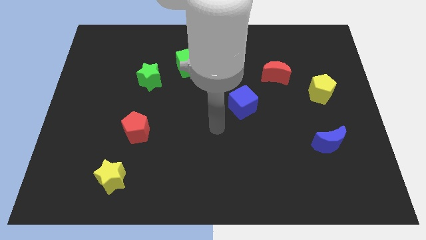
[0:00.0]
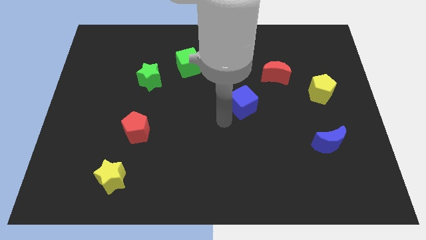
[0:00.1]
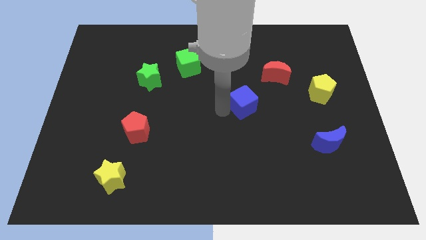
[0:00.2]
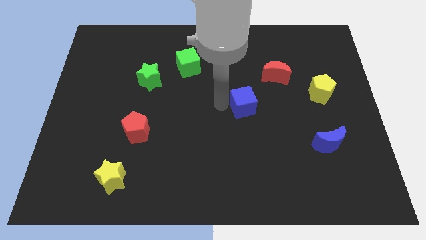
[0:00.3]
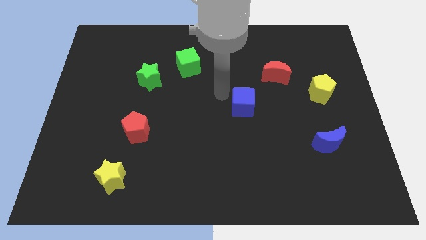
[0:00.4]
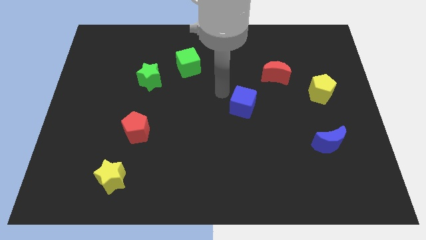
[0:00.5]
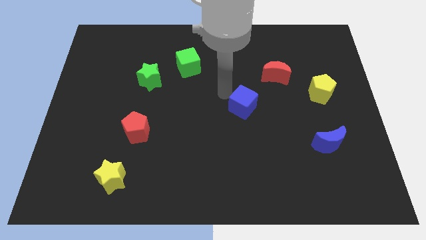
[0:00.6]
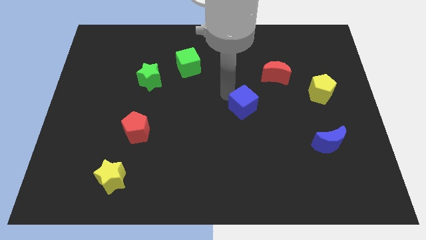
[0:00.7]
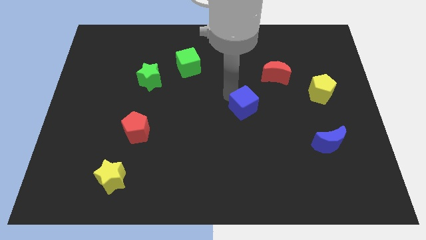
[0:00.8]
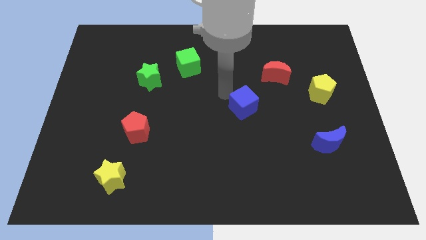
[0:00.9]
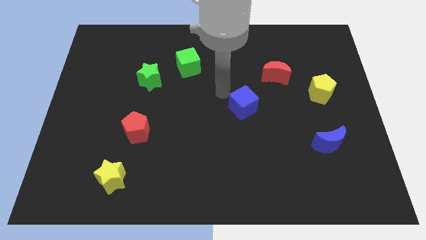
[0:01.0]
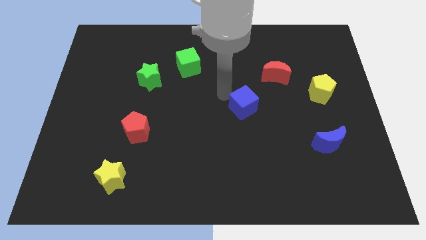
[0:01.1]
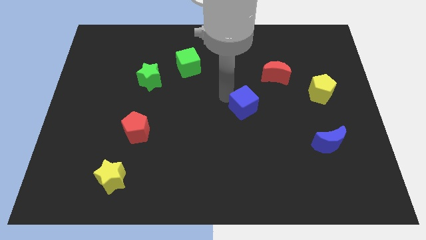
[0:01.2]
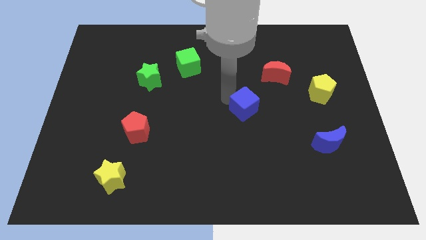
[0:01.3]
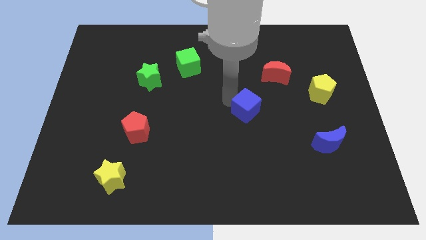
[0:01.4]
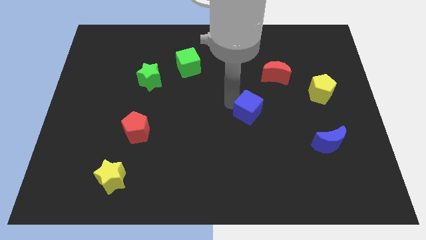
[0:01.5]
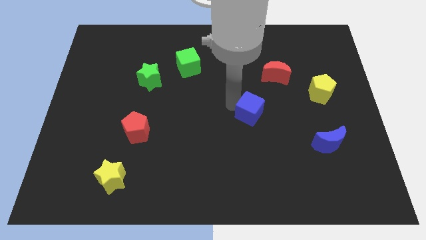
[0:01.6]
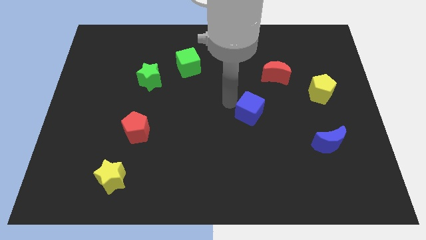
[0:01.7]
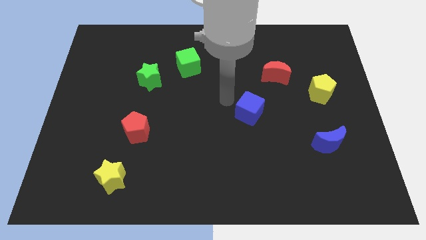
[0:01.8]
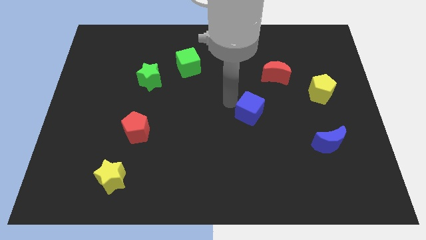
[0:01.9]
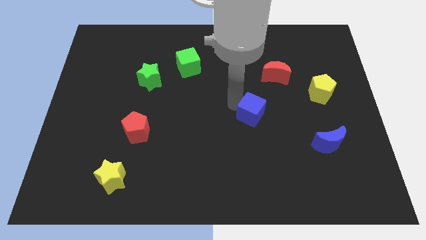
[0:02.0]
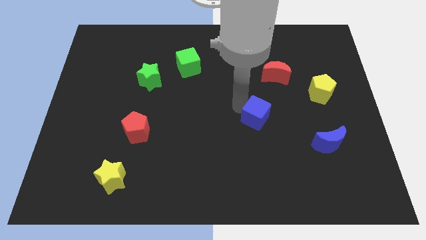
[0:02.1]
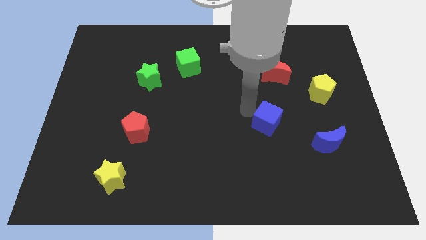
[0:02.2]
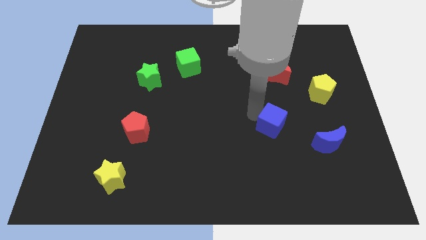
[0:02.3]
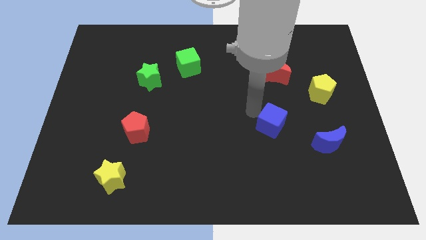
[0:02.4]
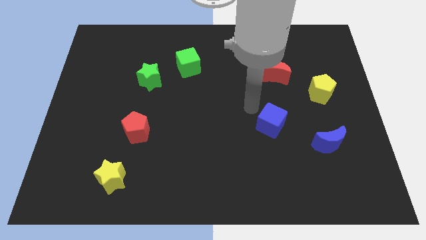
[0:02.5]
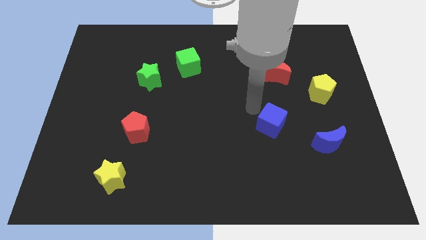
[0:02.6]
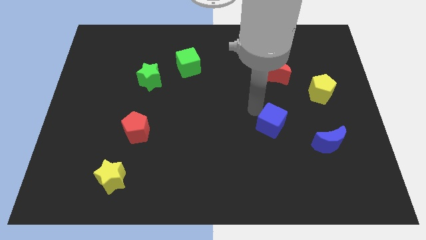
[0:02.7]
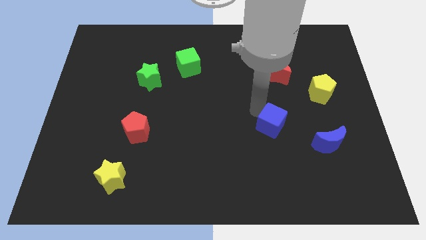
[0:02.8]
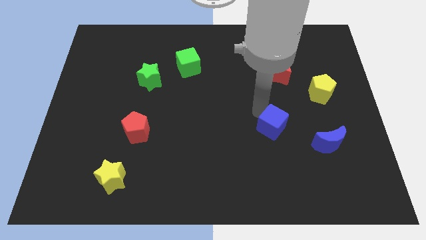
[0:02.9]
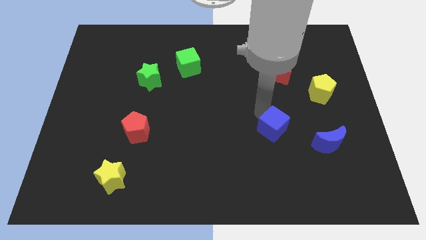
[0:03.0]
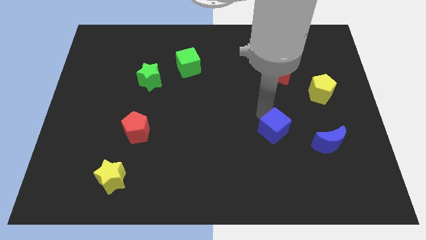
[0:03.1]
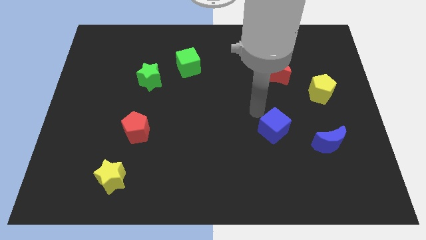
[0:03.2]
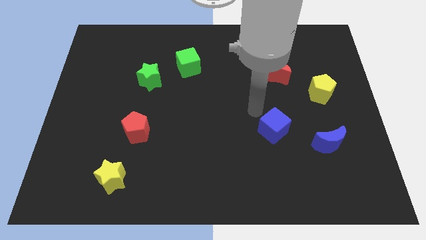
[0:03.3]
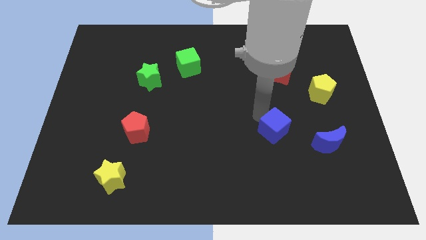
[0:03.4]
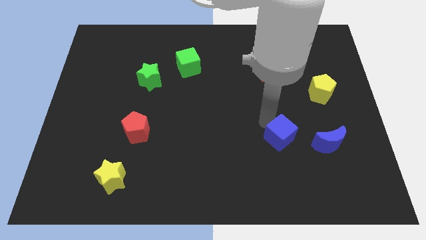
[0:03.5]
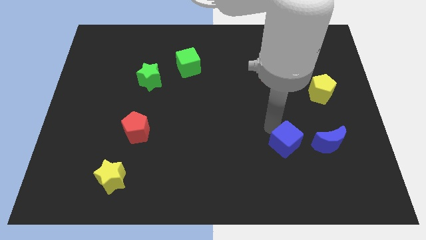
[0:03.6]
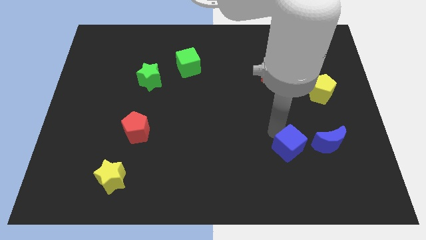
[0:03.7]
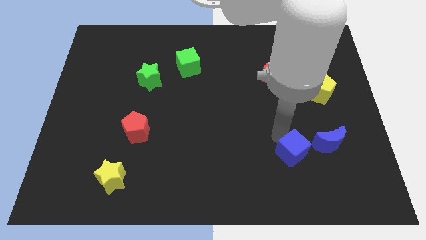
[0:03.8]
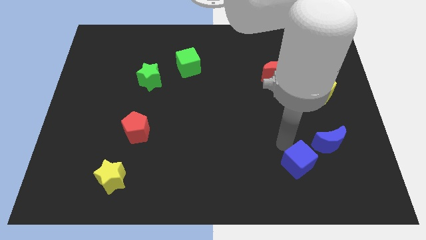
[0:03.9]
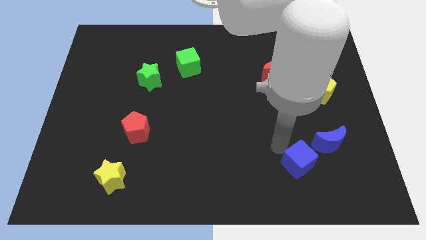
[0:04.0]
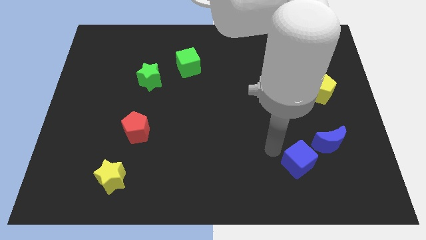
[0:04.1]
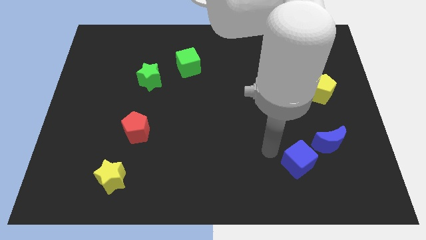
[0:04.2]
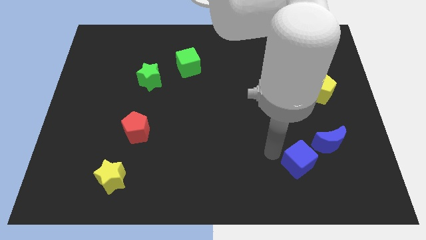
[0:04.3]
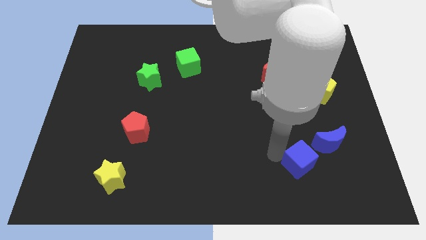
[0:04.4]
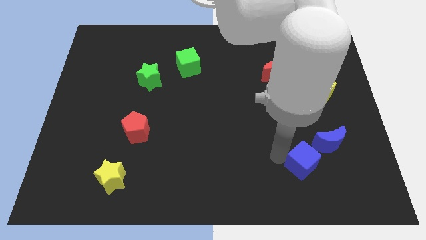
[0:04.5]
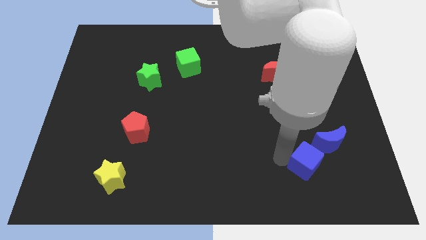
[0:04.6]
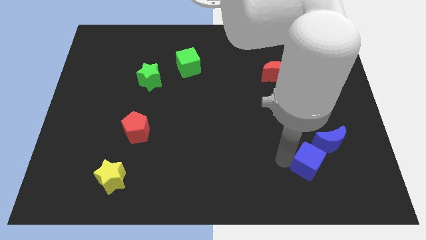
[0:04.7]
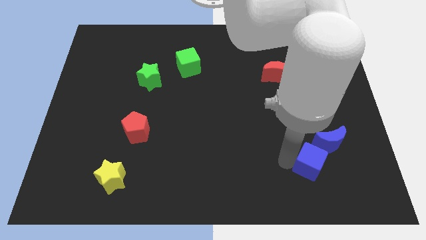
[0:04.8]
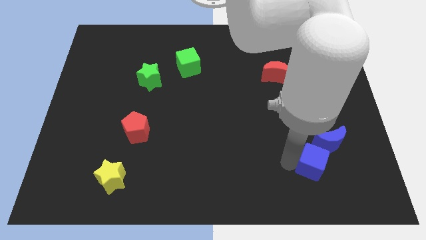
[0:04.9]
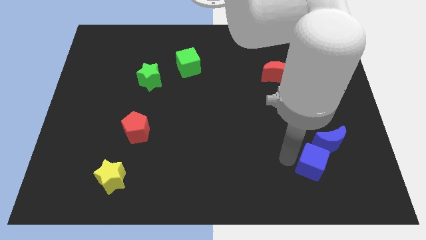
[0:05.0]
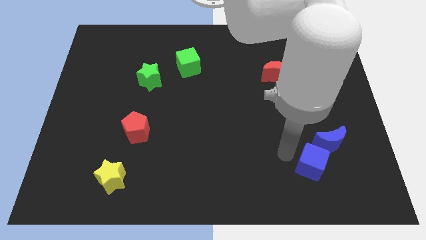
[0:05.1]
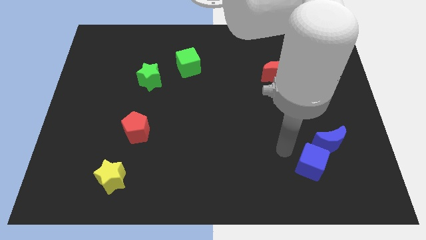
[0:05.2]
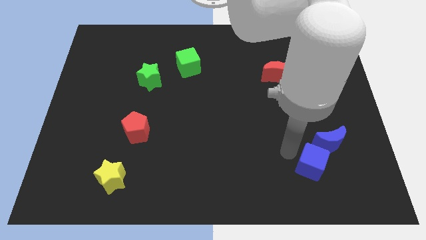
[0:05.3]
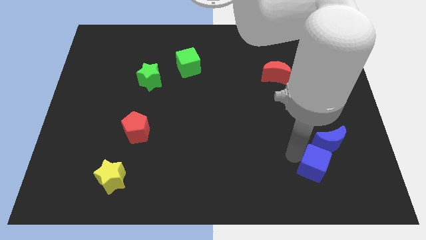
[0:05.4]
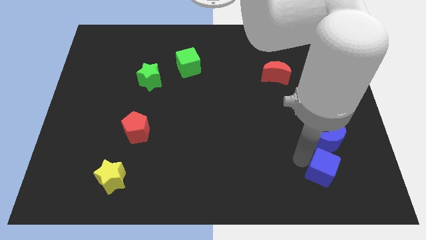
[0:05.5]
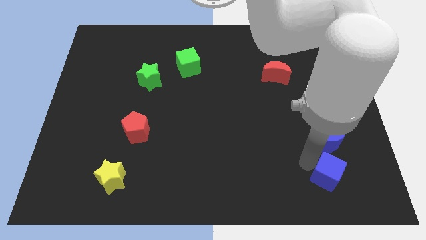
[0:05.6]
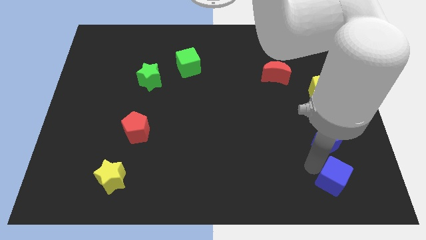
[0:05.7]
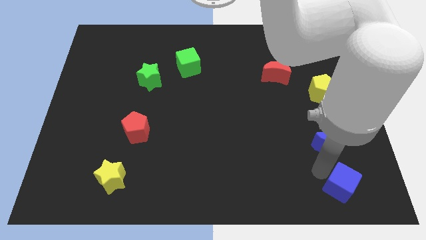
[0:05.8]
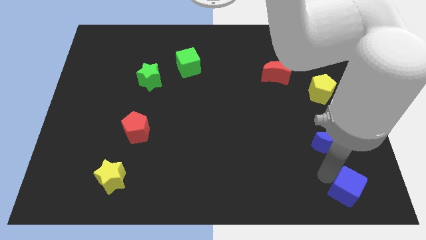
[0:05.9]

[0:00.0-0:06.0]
push the blue cube to the bottom right of the board
